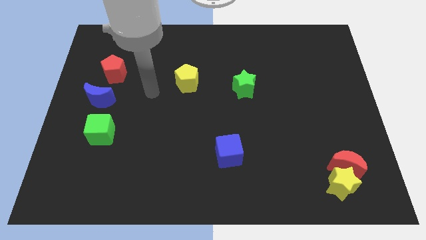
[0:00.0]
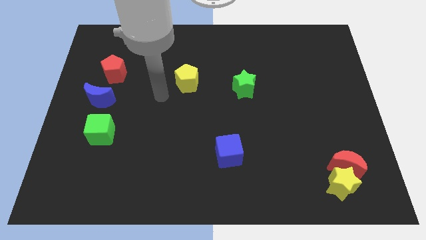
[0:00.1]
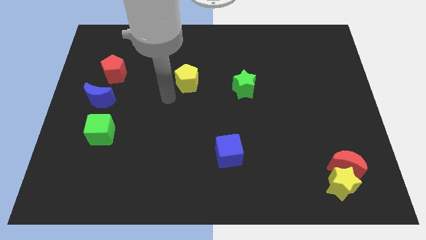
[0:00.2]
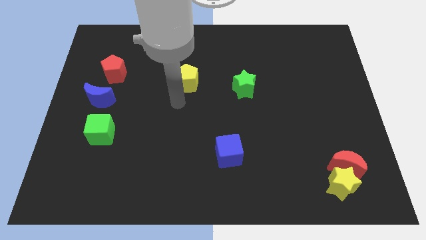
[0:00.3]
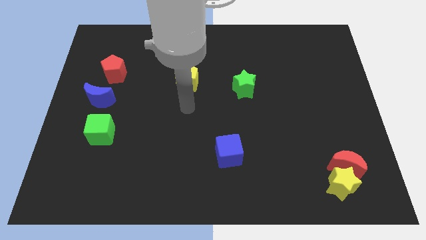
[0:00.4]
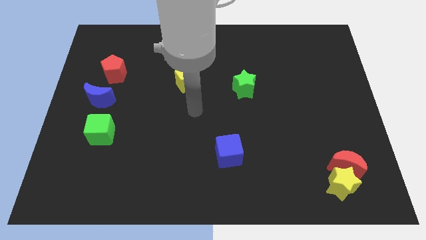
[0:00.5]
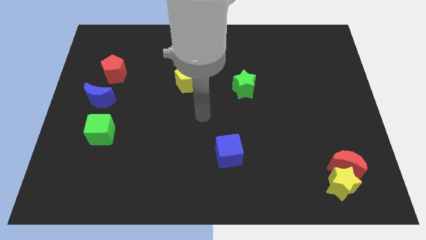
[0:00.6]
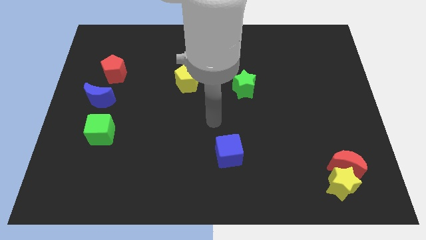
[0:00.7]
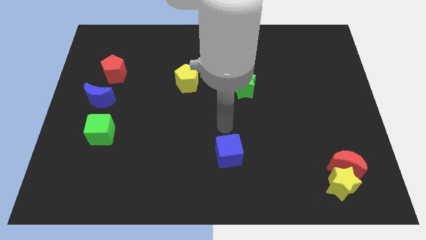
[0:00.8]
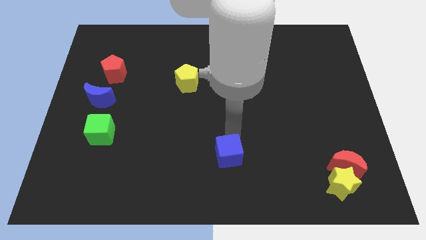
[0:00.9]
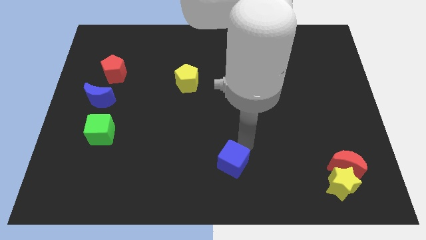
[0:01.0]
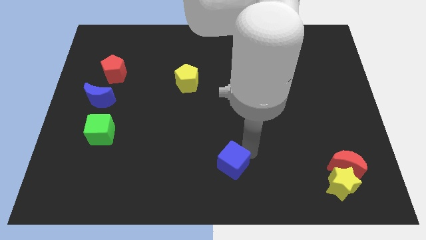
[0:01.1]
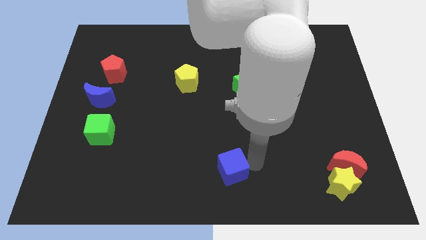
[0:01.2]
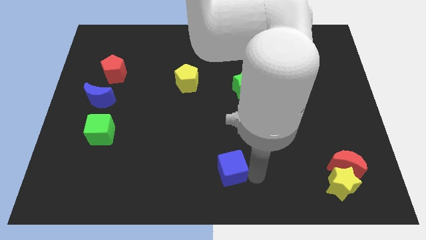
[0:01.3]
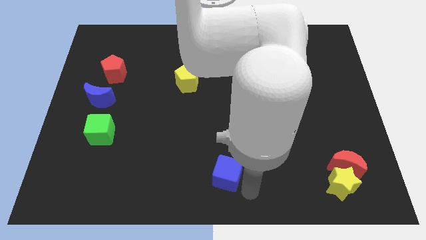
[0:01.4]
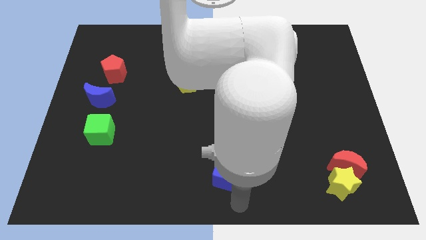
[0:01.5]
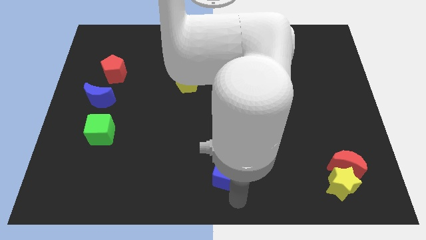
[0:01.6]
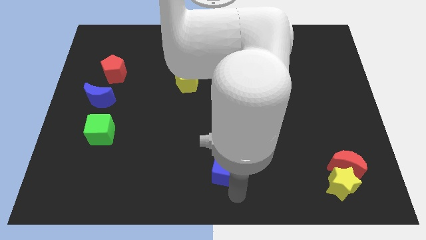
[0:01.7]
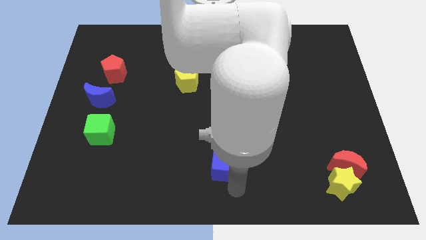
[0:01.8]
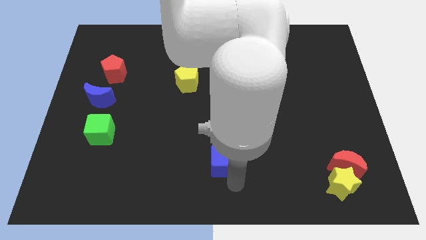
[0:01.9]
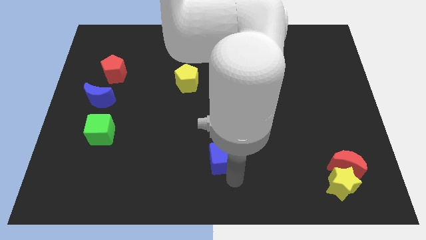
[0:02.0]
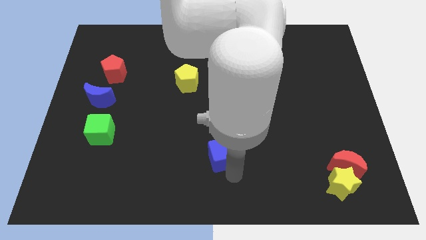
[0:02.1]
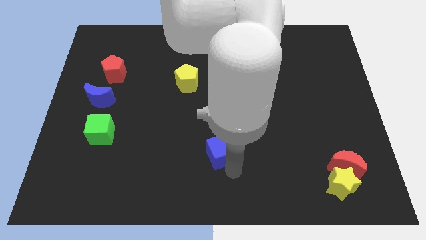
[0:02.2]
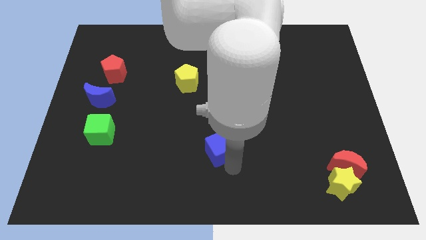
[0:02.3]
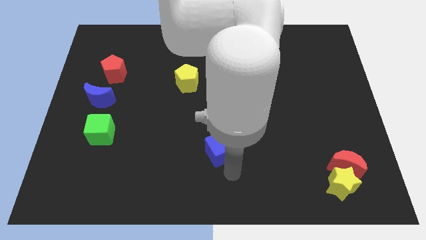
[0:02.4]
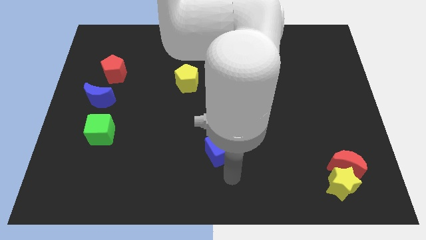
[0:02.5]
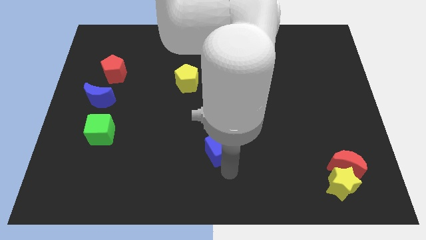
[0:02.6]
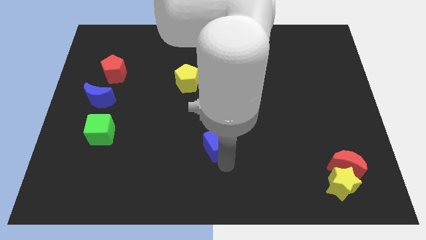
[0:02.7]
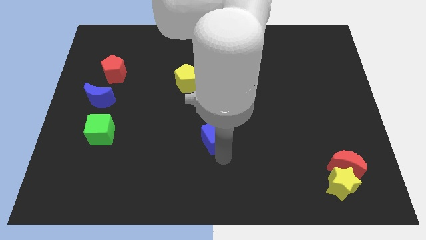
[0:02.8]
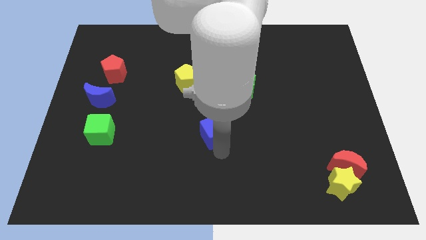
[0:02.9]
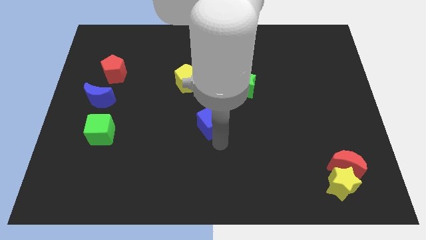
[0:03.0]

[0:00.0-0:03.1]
slide the blue cube diagonally upwards and to the left somewhat

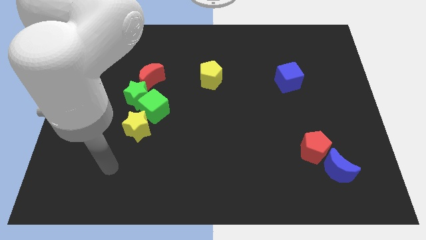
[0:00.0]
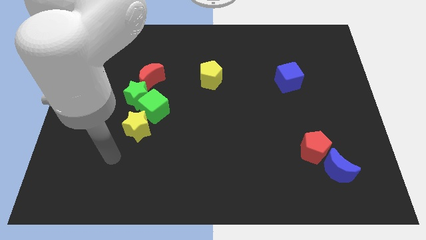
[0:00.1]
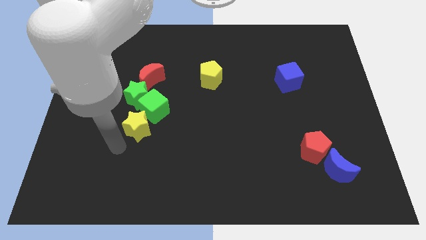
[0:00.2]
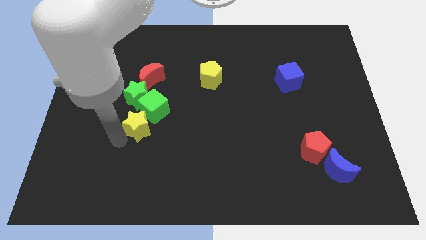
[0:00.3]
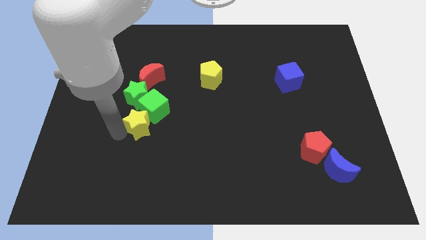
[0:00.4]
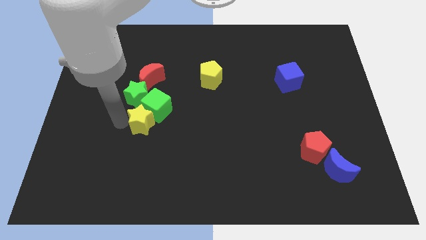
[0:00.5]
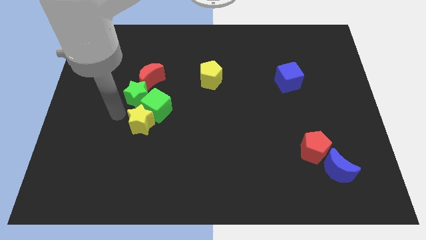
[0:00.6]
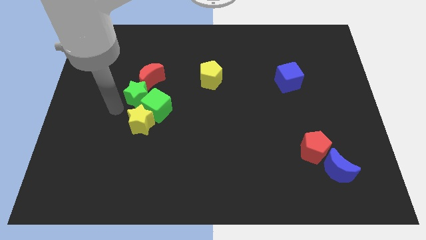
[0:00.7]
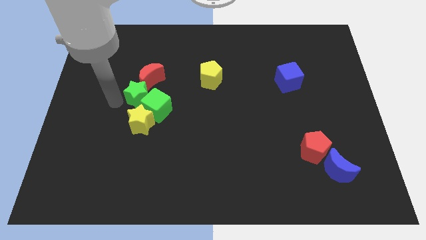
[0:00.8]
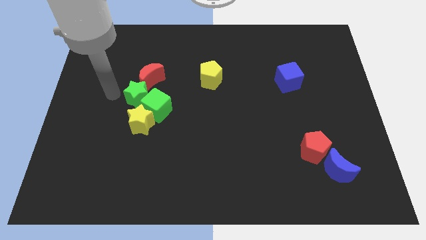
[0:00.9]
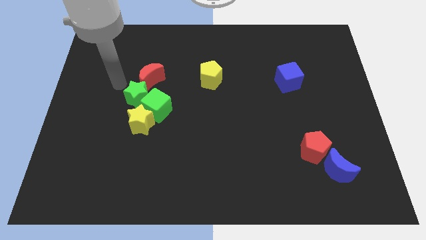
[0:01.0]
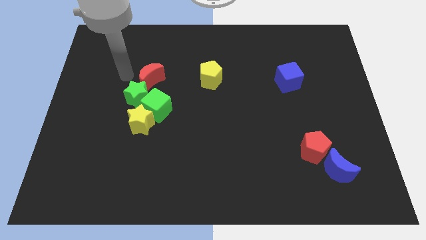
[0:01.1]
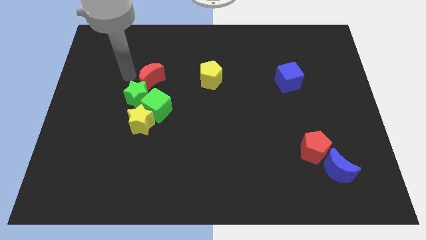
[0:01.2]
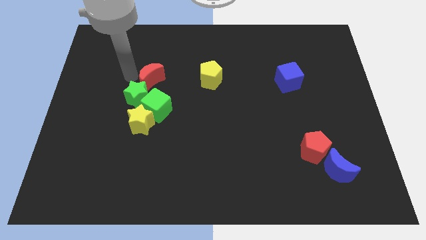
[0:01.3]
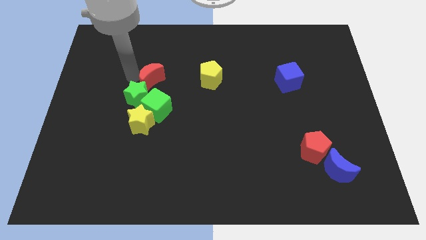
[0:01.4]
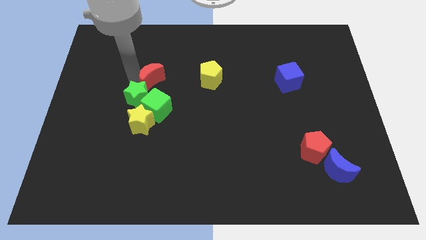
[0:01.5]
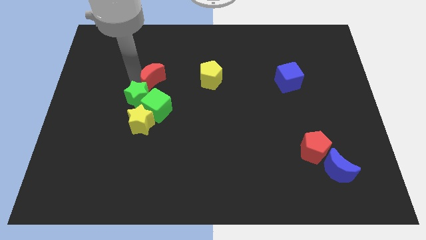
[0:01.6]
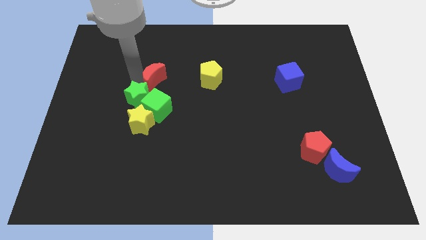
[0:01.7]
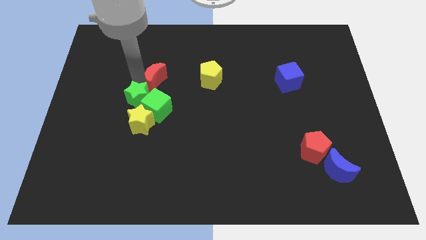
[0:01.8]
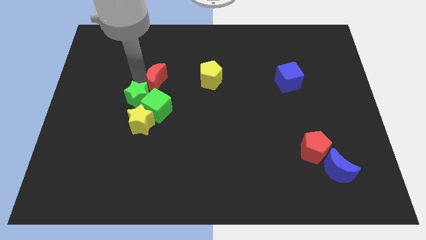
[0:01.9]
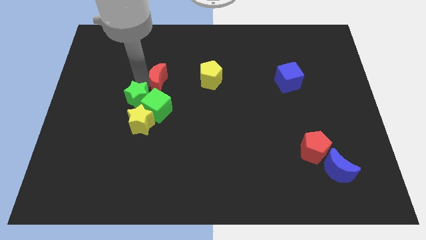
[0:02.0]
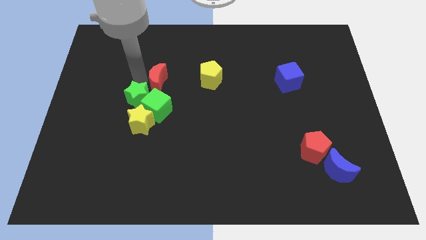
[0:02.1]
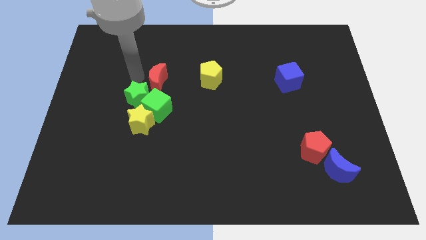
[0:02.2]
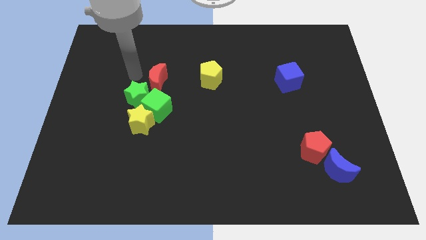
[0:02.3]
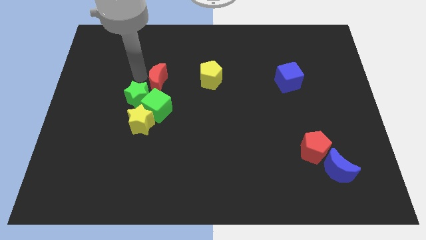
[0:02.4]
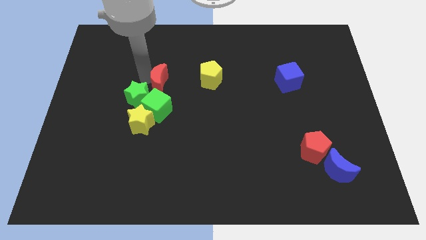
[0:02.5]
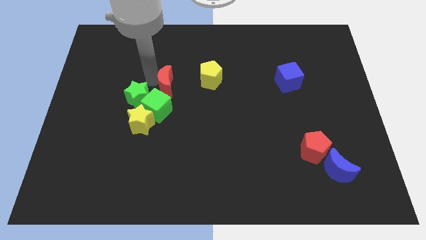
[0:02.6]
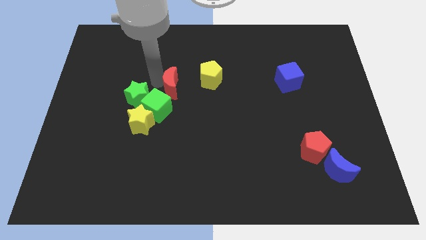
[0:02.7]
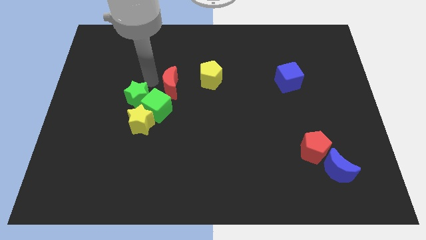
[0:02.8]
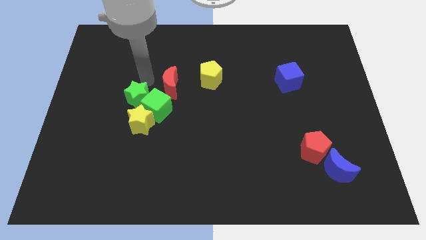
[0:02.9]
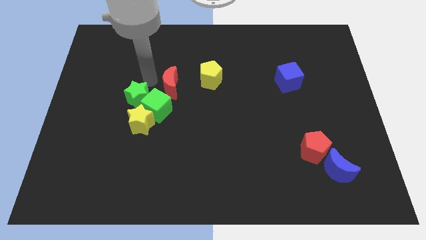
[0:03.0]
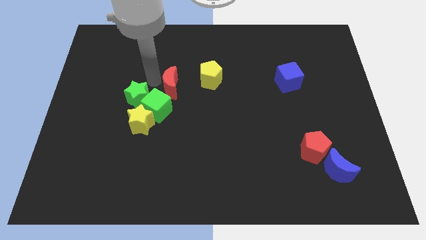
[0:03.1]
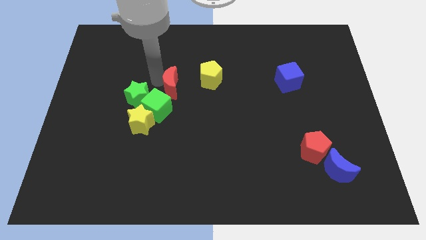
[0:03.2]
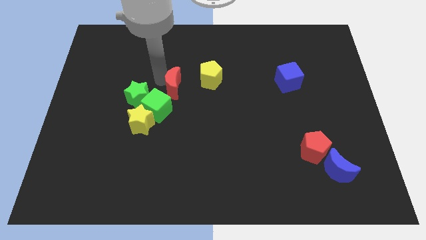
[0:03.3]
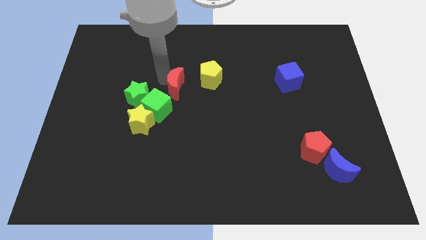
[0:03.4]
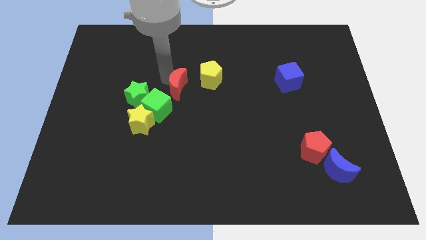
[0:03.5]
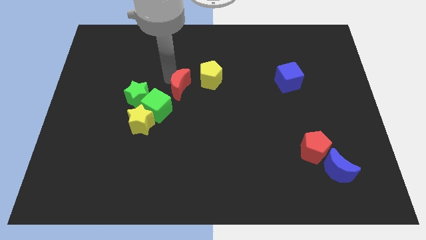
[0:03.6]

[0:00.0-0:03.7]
move the red moon a little bit right

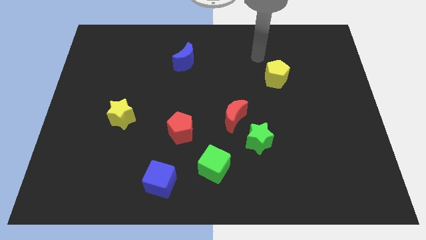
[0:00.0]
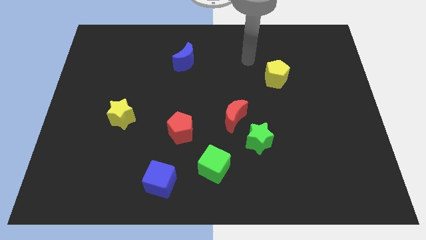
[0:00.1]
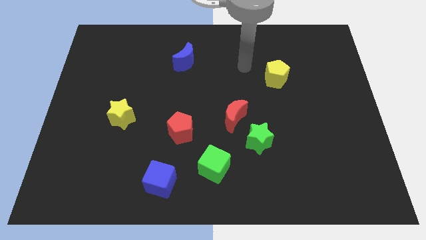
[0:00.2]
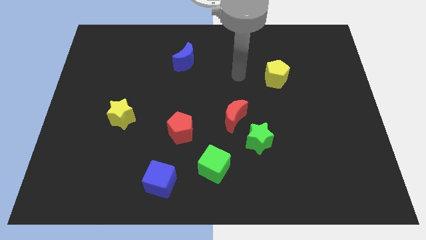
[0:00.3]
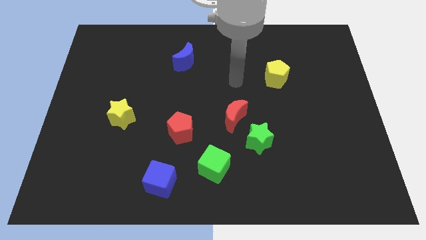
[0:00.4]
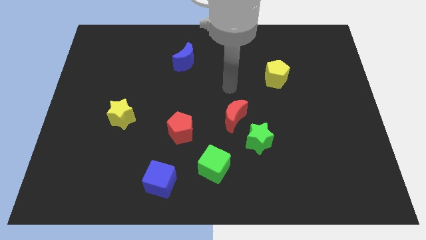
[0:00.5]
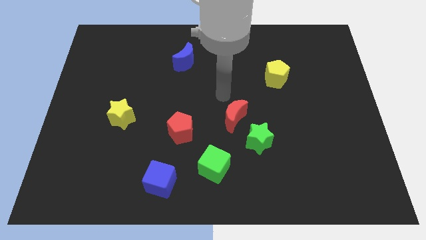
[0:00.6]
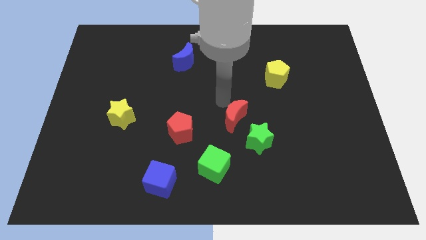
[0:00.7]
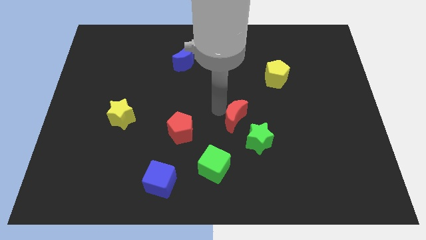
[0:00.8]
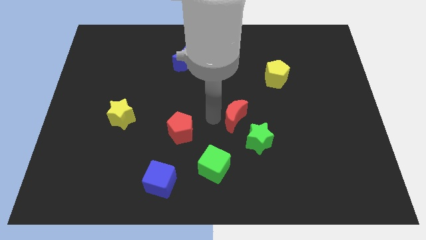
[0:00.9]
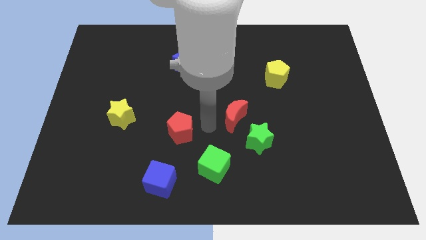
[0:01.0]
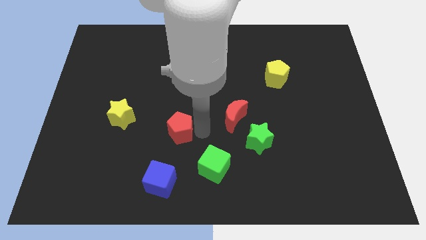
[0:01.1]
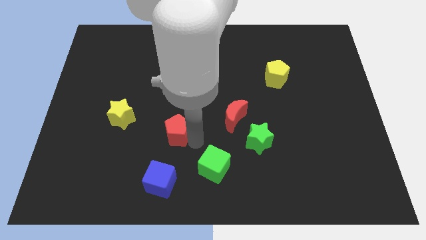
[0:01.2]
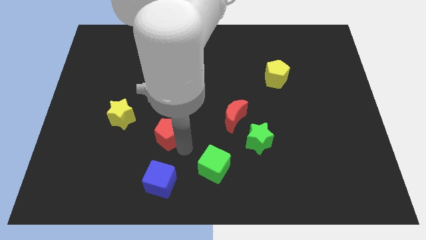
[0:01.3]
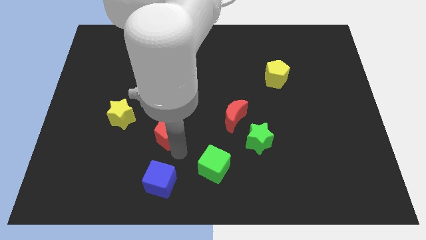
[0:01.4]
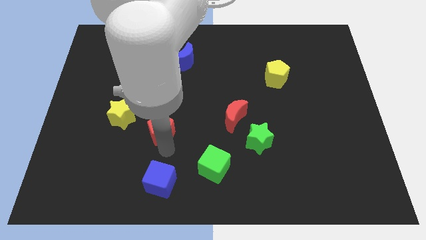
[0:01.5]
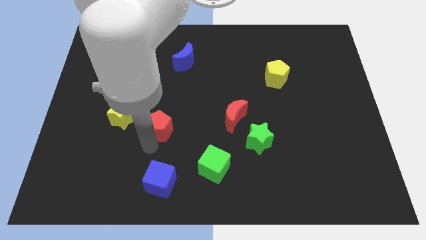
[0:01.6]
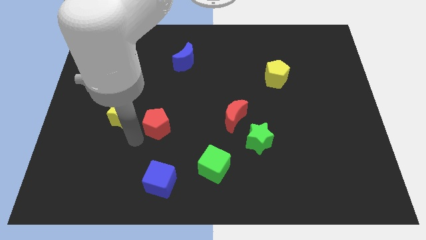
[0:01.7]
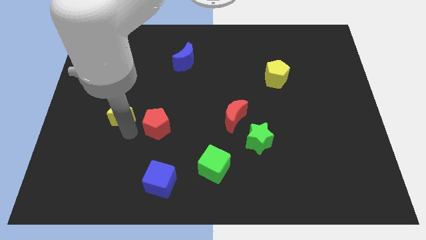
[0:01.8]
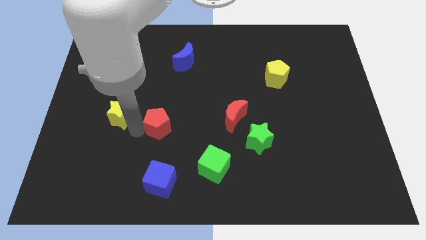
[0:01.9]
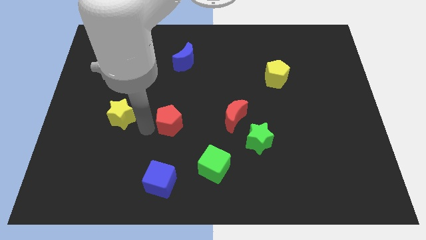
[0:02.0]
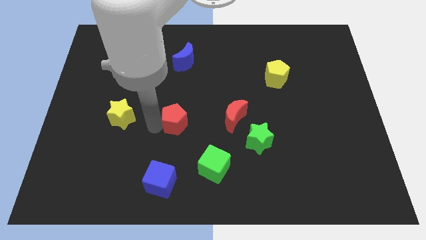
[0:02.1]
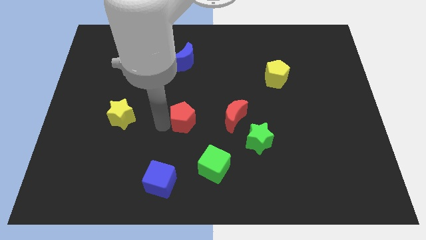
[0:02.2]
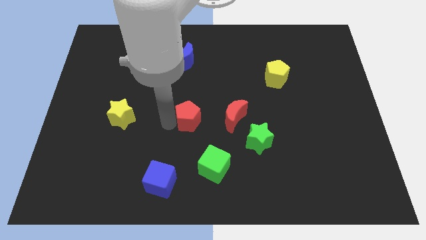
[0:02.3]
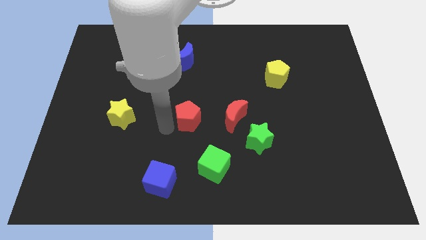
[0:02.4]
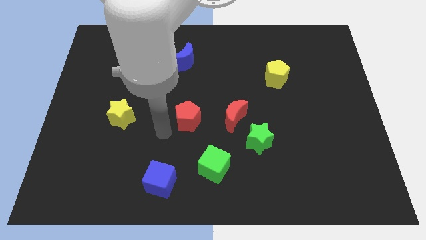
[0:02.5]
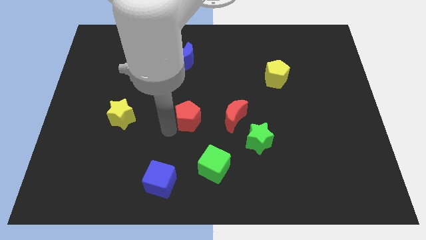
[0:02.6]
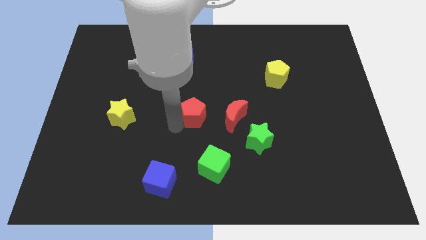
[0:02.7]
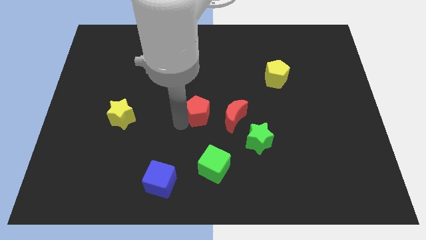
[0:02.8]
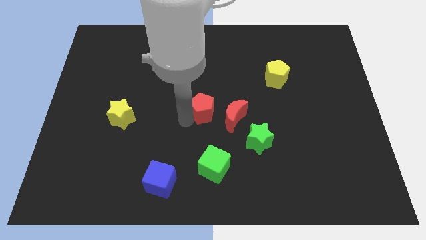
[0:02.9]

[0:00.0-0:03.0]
move the red pentagon up and to the right diagonally slightly
